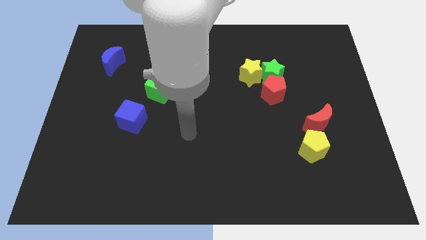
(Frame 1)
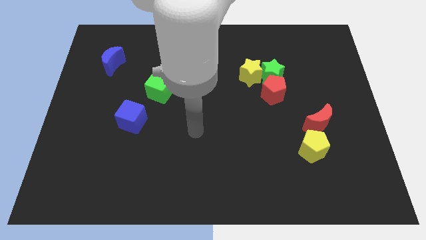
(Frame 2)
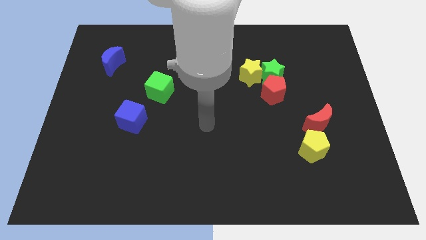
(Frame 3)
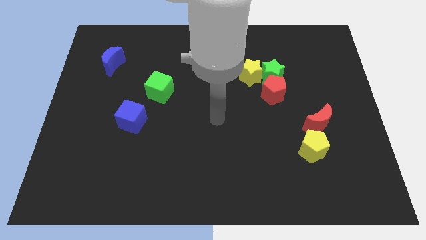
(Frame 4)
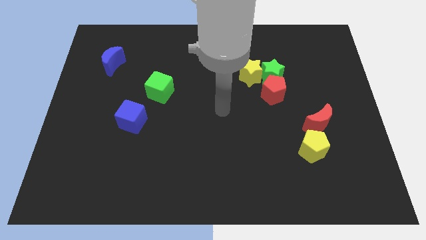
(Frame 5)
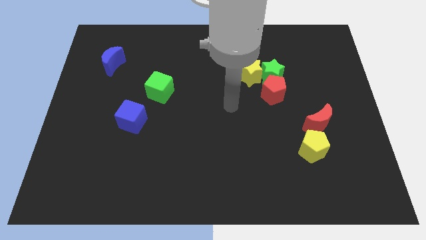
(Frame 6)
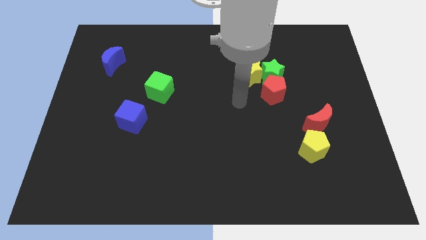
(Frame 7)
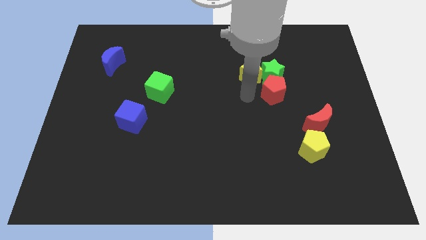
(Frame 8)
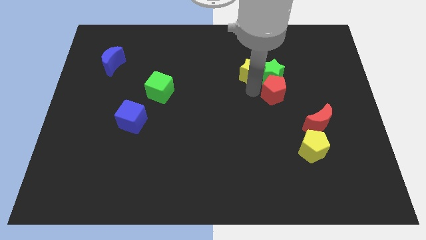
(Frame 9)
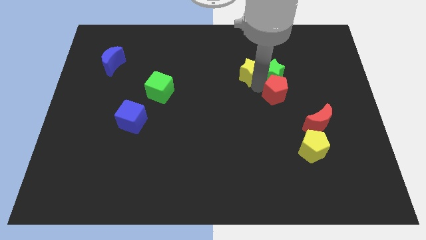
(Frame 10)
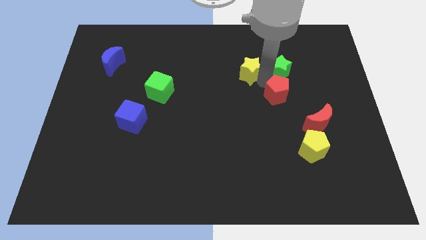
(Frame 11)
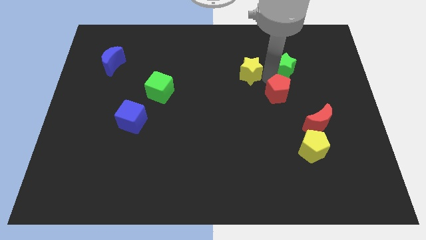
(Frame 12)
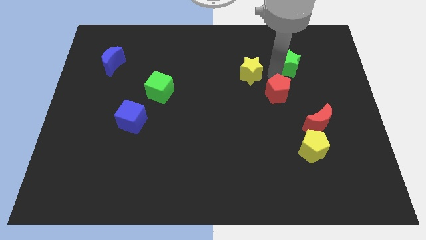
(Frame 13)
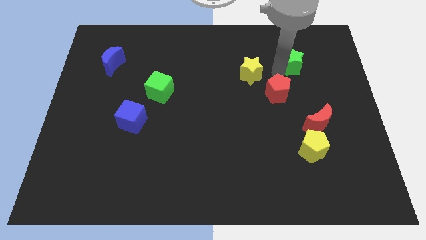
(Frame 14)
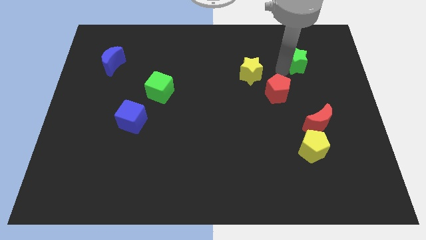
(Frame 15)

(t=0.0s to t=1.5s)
move the green star away from the yellow star and red pentagon

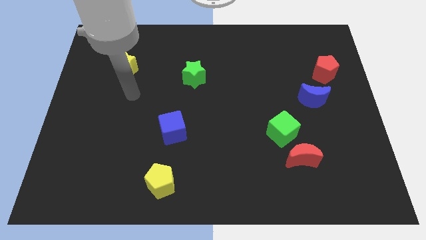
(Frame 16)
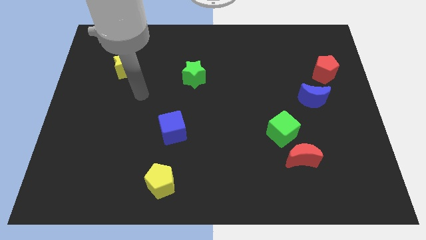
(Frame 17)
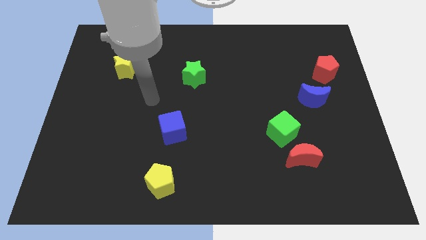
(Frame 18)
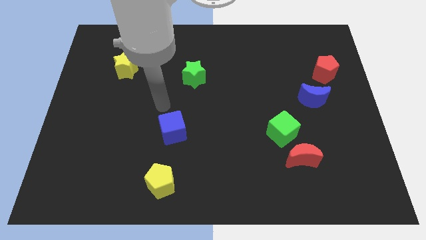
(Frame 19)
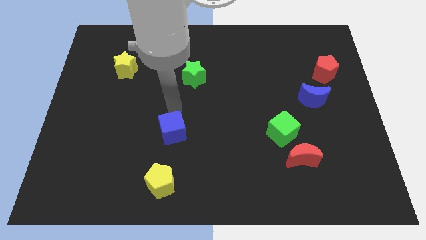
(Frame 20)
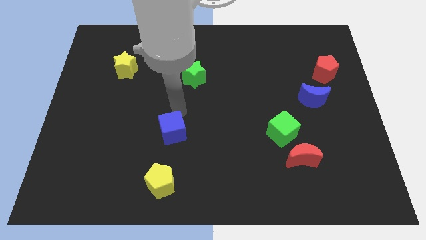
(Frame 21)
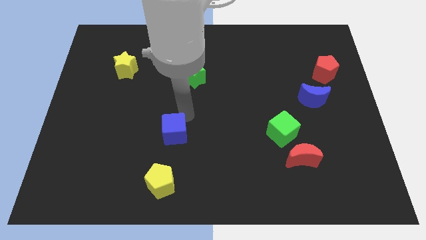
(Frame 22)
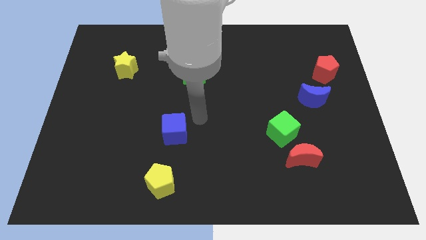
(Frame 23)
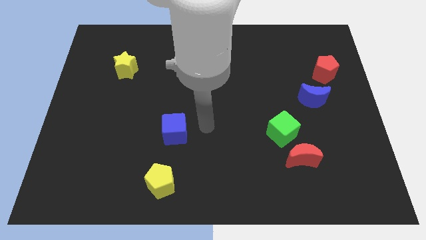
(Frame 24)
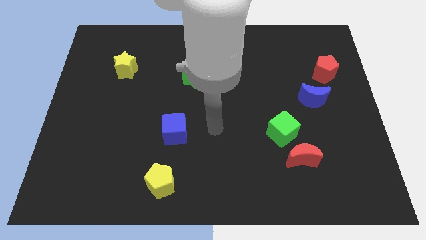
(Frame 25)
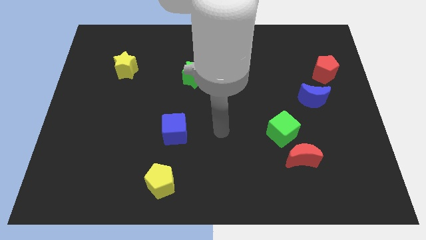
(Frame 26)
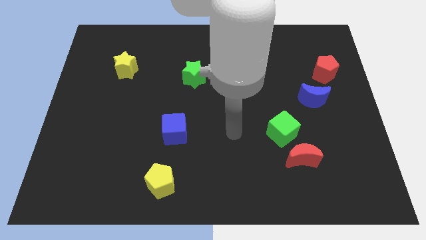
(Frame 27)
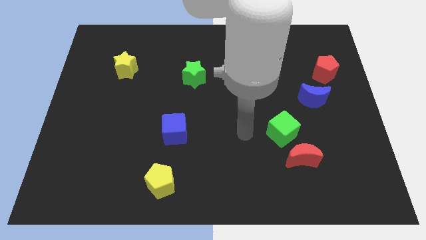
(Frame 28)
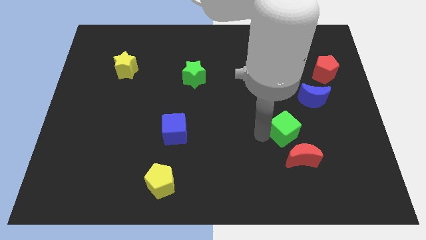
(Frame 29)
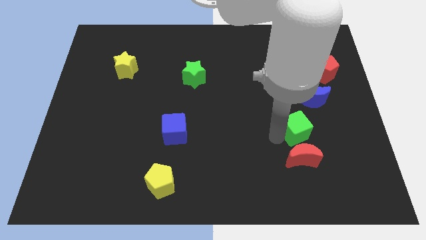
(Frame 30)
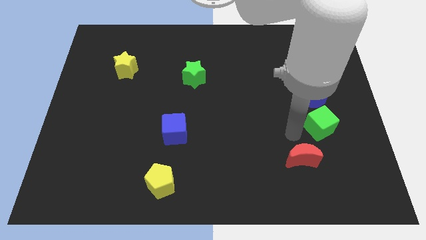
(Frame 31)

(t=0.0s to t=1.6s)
pull the red moon apart from the green cube

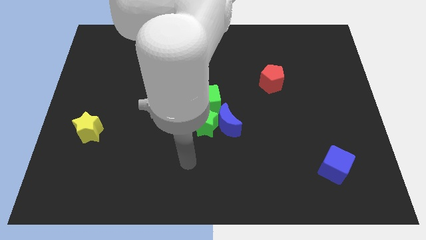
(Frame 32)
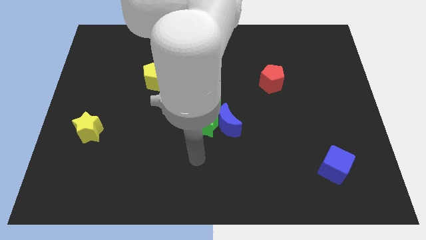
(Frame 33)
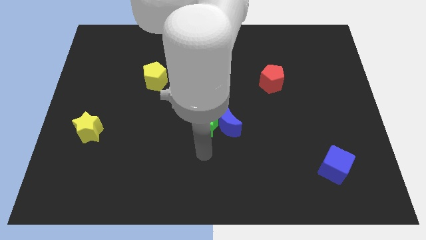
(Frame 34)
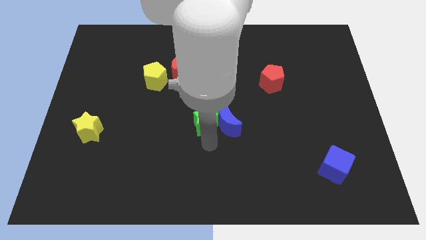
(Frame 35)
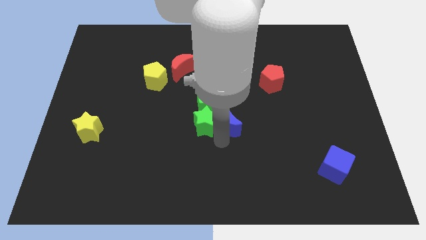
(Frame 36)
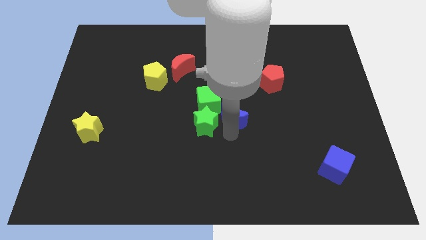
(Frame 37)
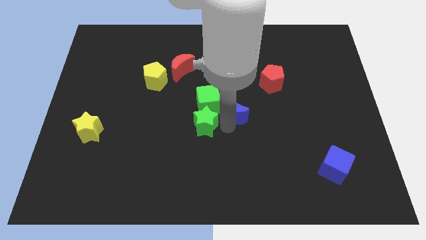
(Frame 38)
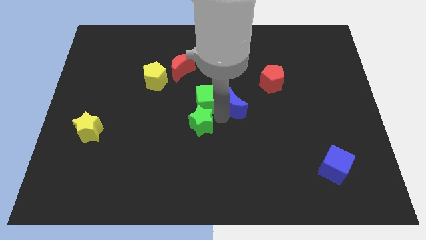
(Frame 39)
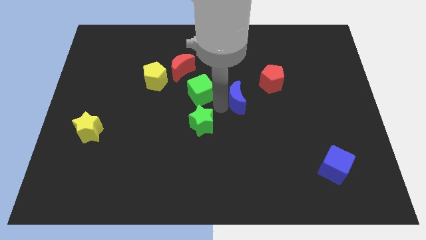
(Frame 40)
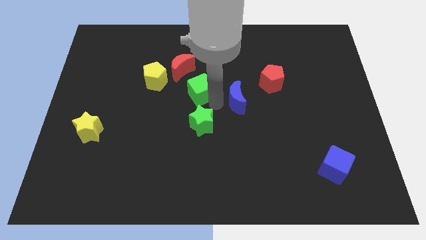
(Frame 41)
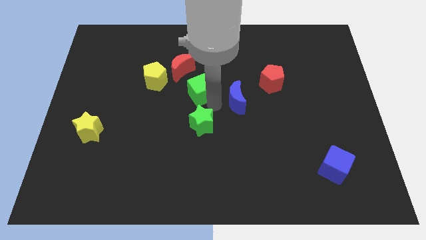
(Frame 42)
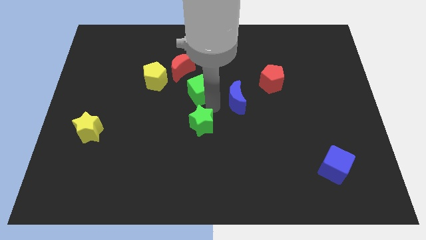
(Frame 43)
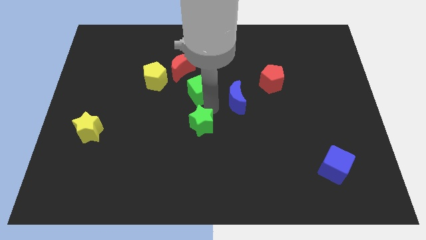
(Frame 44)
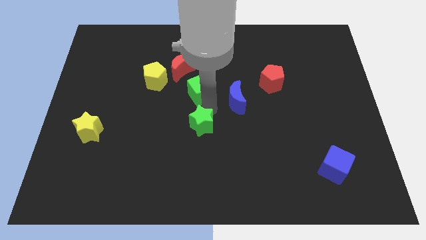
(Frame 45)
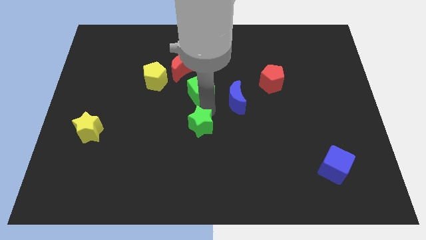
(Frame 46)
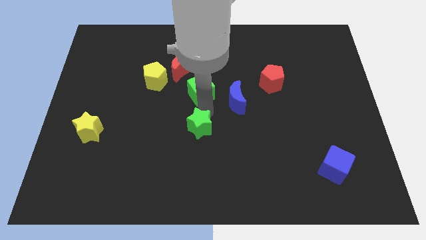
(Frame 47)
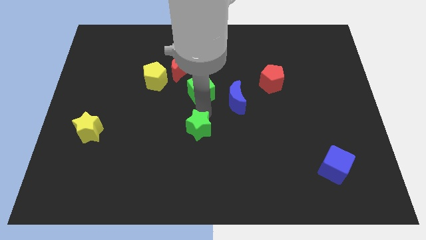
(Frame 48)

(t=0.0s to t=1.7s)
move the green star away from the blue moon and green cube

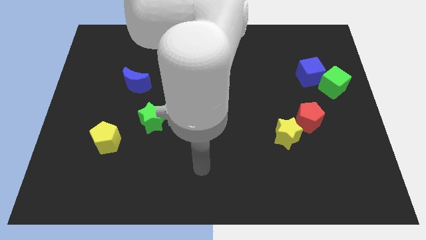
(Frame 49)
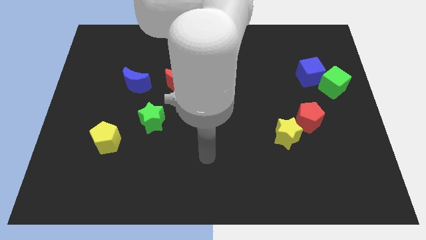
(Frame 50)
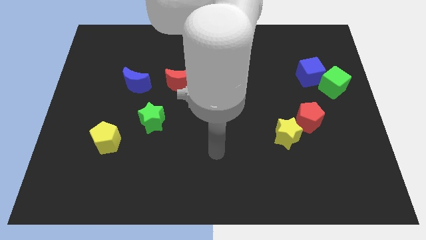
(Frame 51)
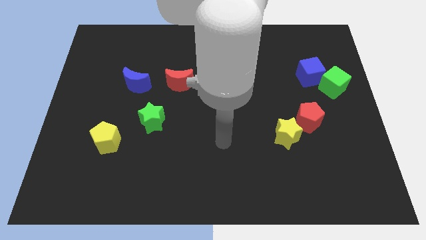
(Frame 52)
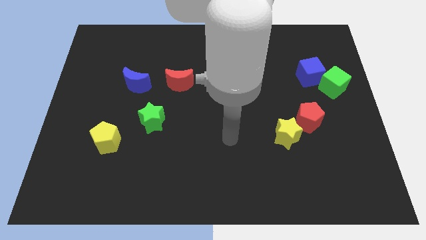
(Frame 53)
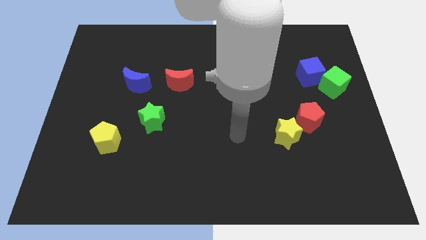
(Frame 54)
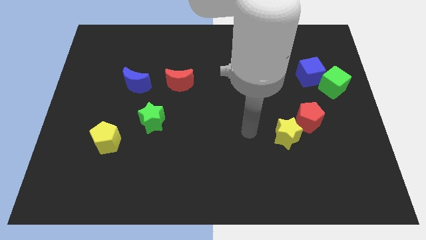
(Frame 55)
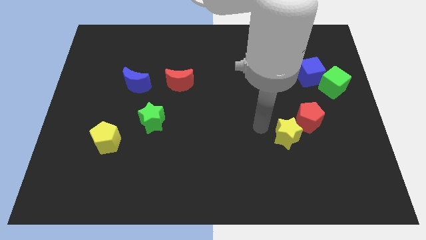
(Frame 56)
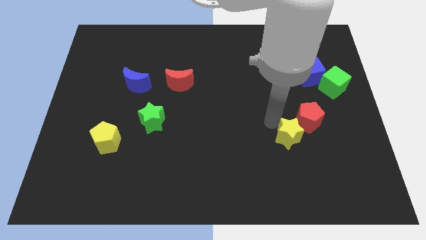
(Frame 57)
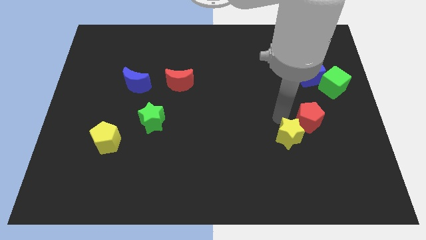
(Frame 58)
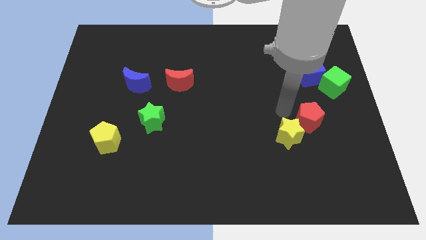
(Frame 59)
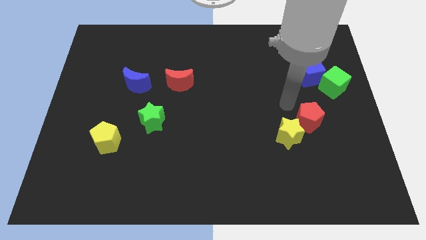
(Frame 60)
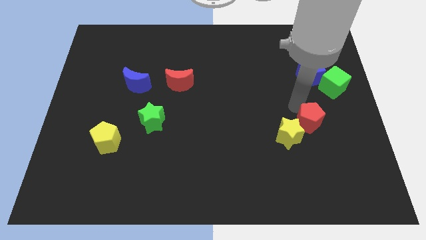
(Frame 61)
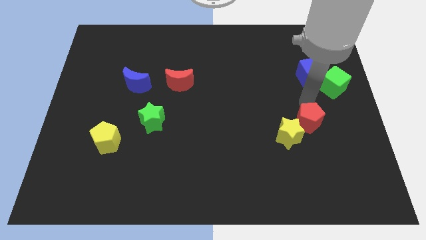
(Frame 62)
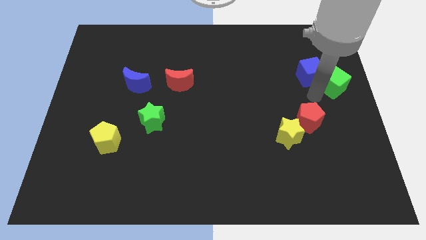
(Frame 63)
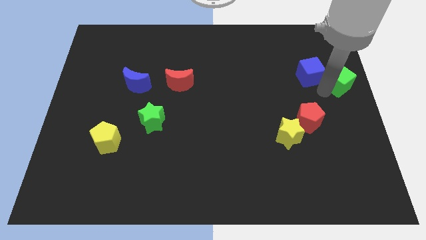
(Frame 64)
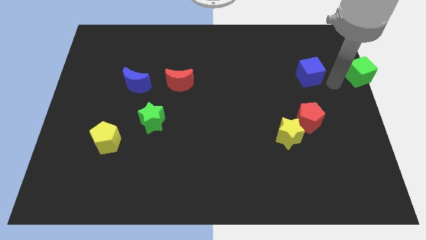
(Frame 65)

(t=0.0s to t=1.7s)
pull the blue cube apart from the green cube

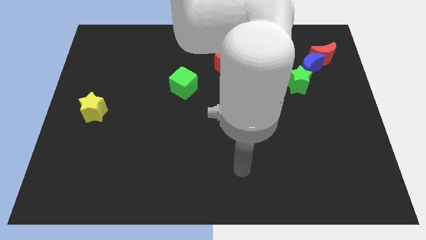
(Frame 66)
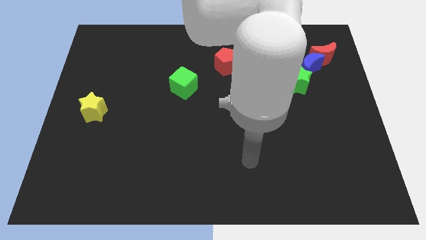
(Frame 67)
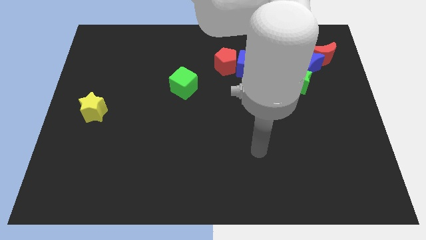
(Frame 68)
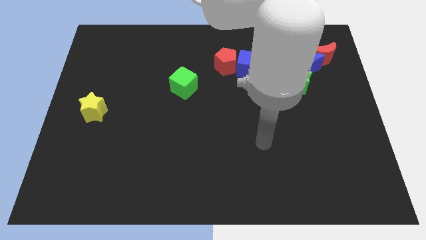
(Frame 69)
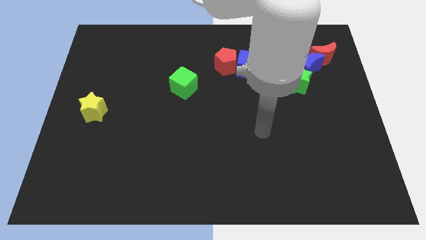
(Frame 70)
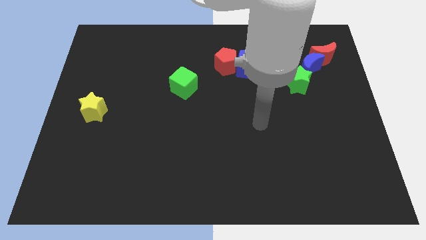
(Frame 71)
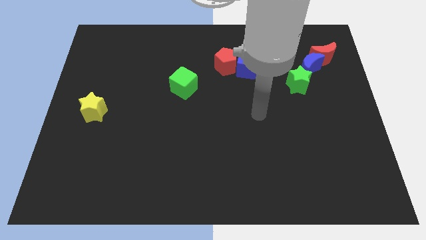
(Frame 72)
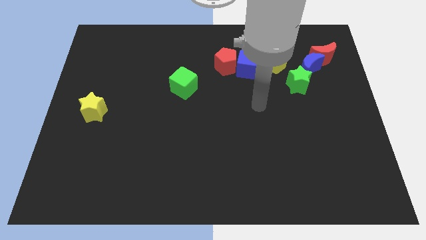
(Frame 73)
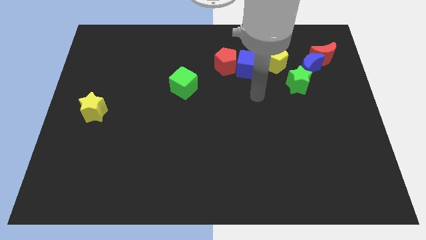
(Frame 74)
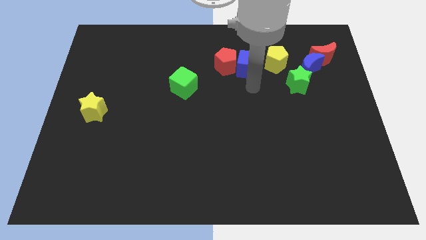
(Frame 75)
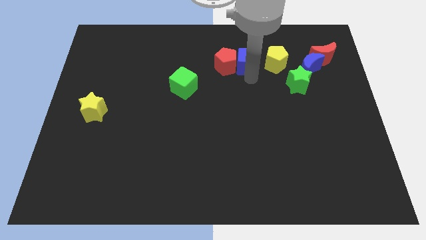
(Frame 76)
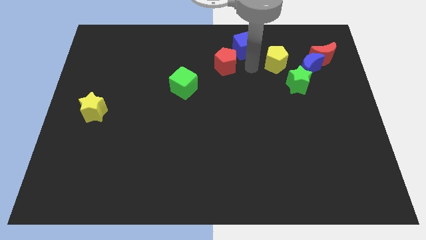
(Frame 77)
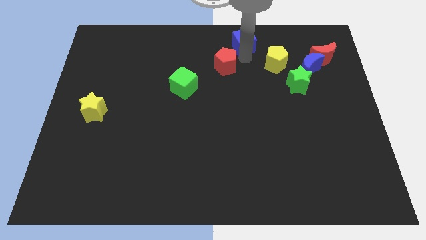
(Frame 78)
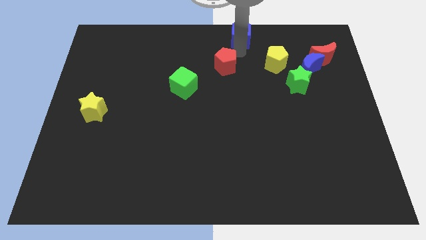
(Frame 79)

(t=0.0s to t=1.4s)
separate the red pentagon from the blue cube

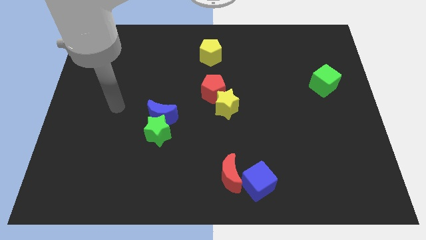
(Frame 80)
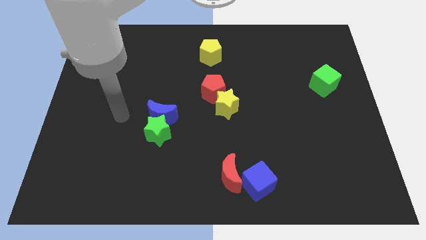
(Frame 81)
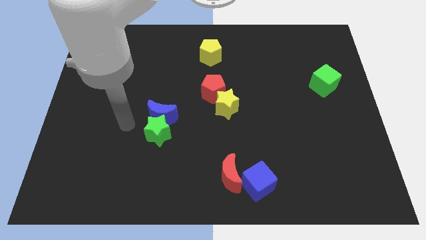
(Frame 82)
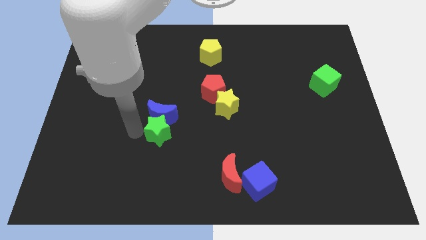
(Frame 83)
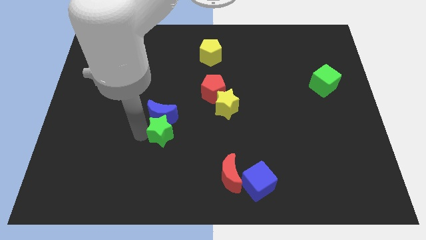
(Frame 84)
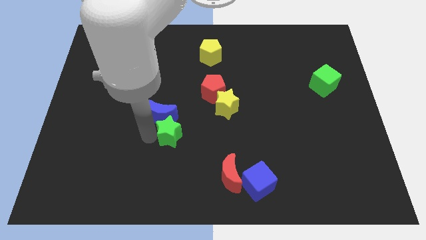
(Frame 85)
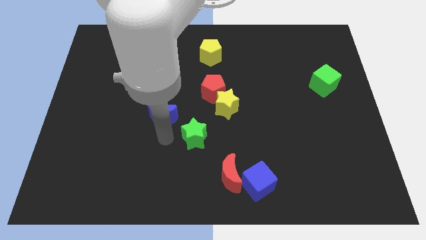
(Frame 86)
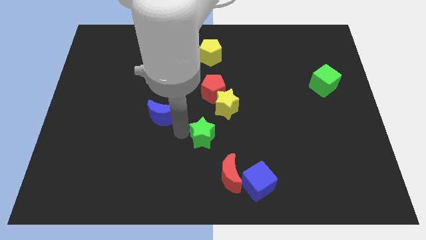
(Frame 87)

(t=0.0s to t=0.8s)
move the blue moon away from the green star

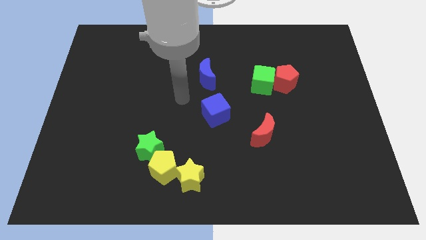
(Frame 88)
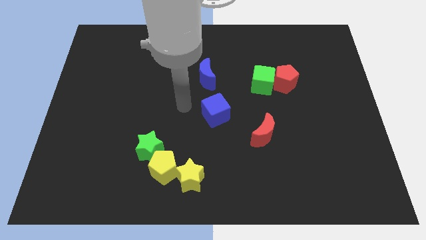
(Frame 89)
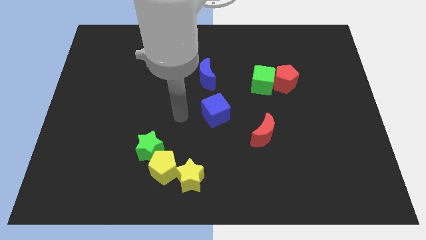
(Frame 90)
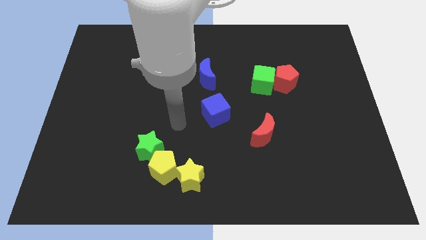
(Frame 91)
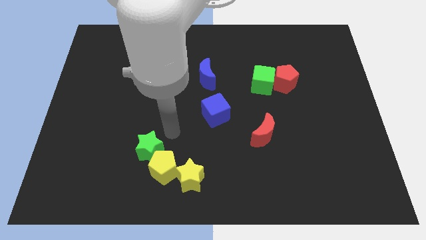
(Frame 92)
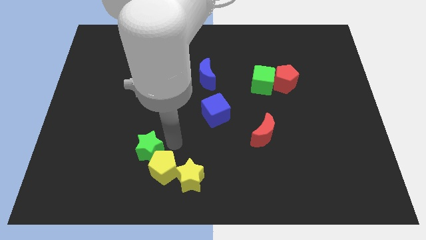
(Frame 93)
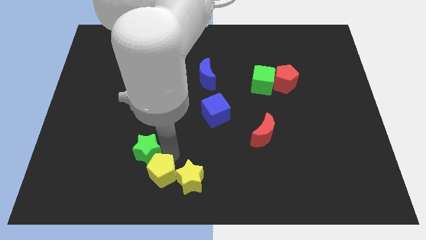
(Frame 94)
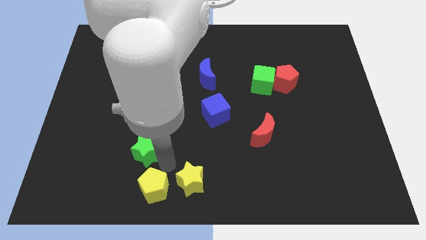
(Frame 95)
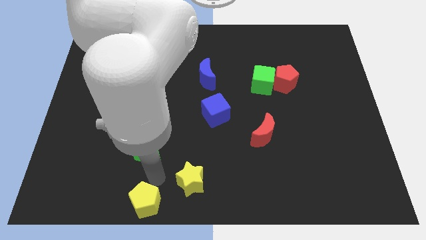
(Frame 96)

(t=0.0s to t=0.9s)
separate the green star from the yellow pentagon
